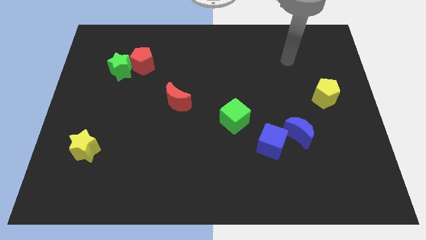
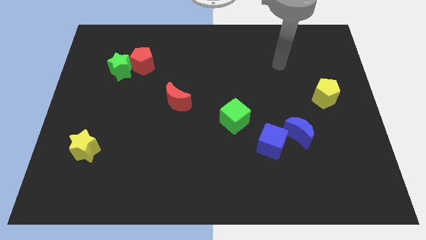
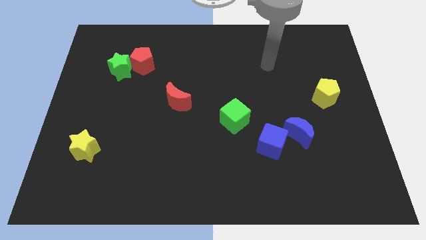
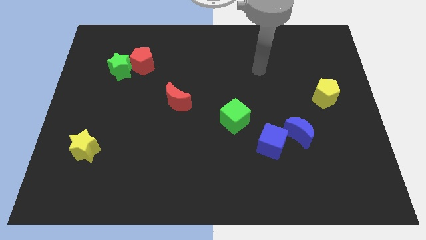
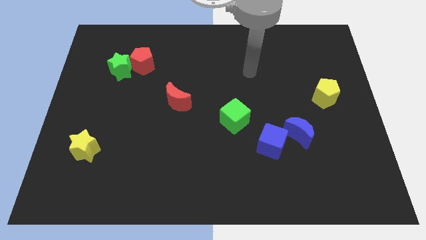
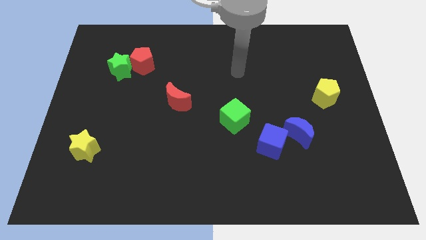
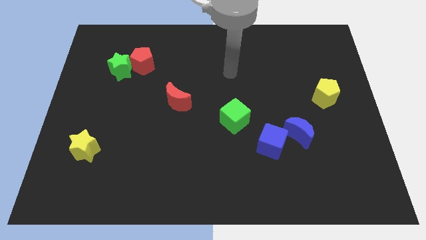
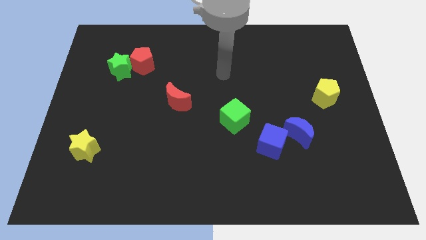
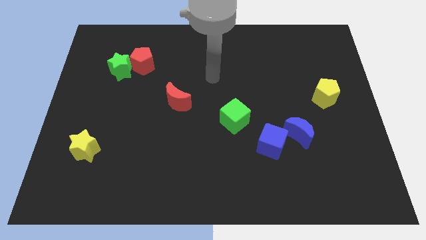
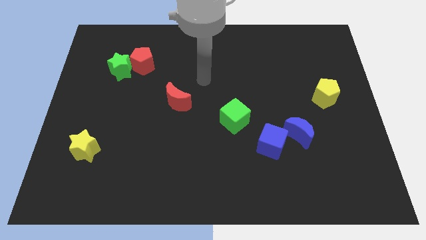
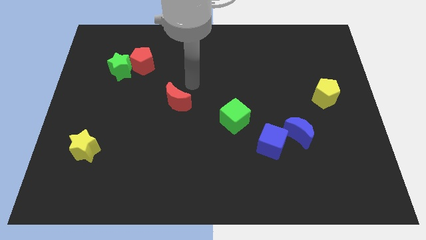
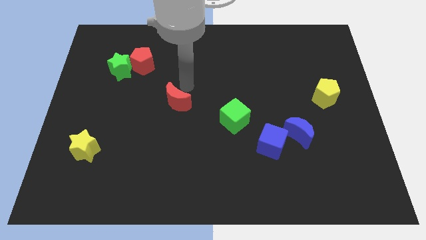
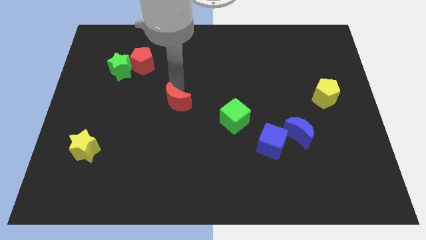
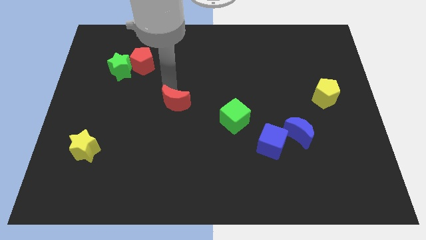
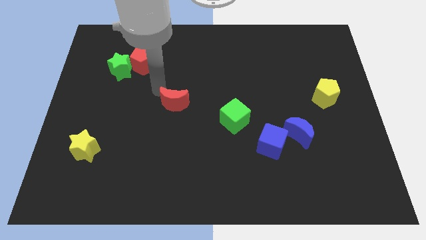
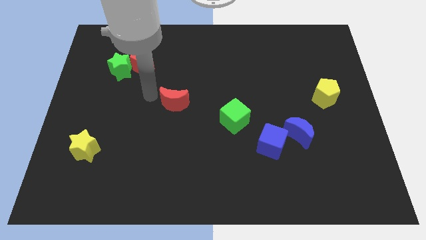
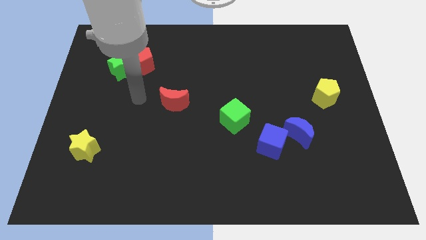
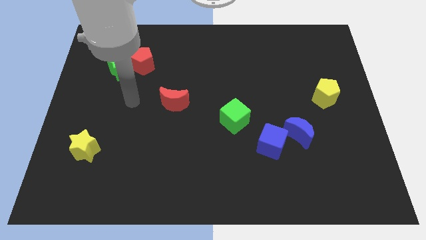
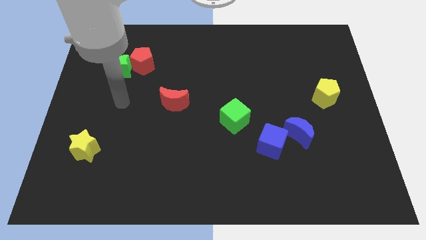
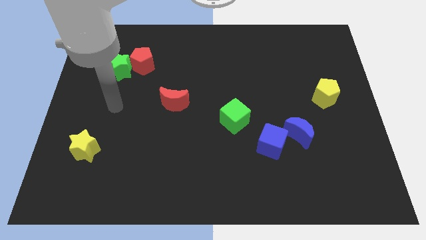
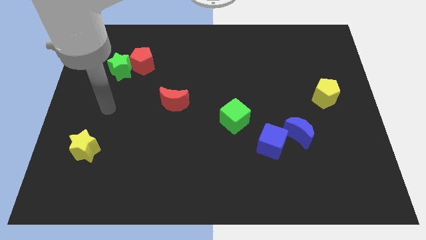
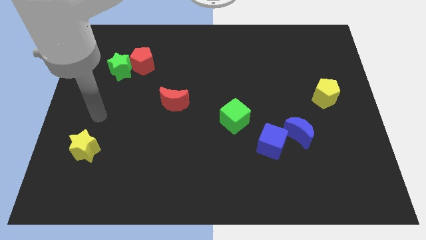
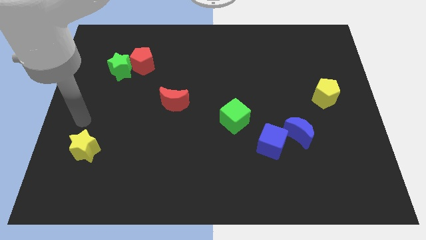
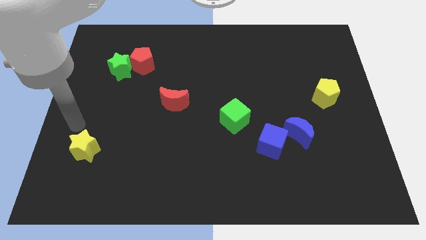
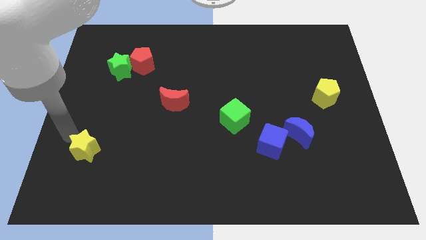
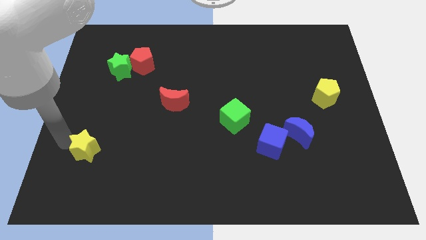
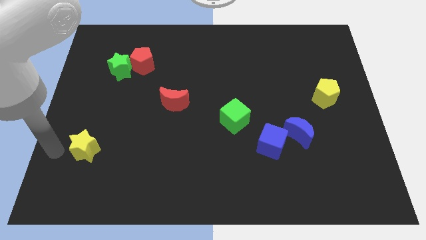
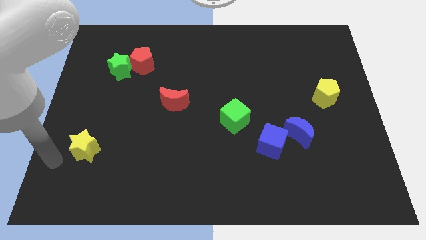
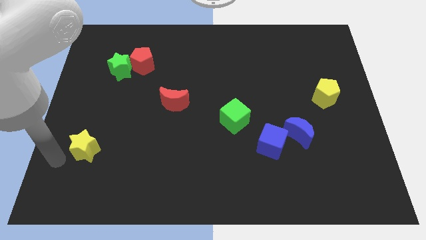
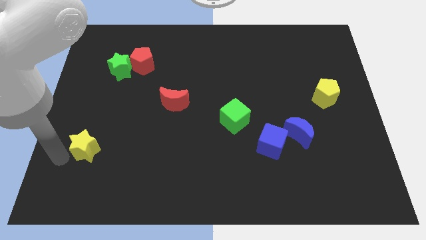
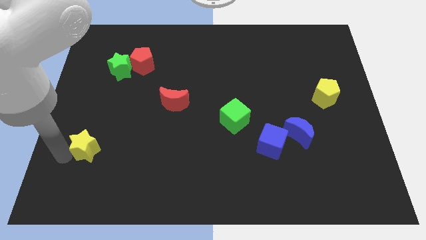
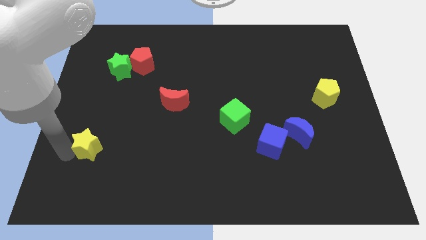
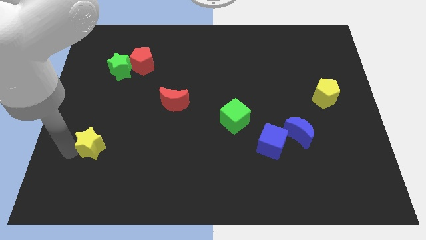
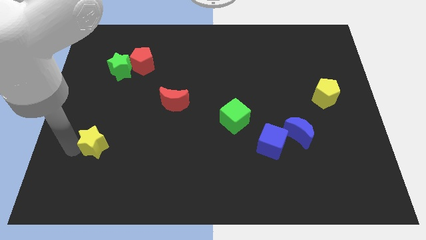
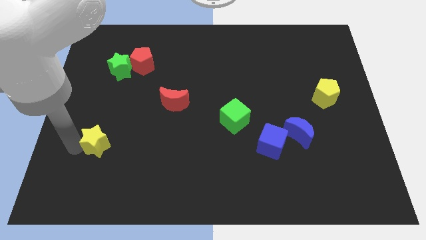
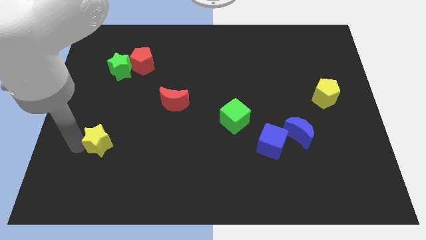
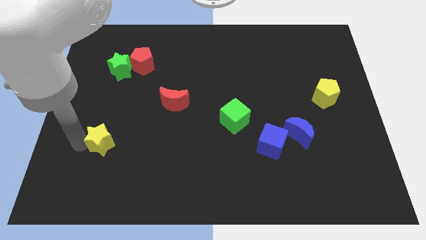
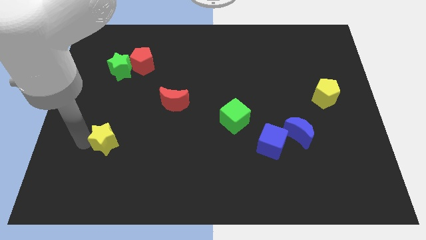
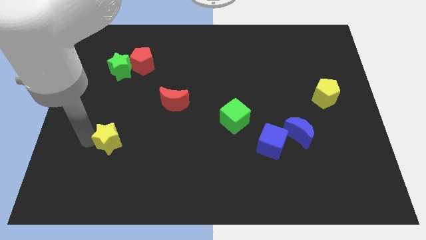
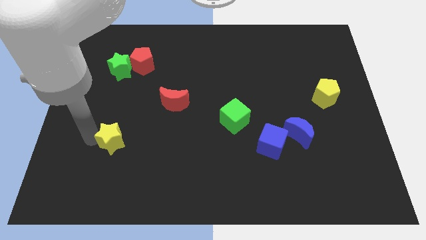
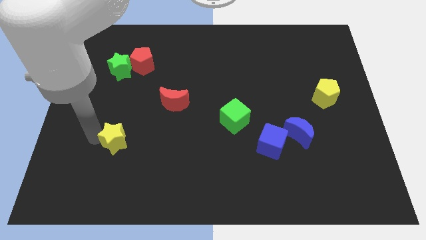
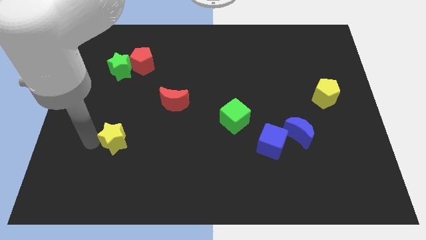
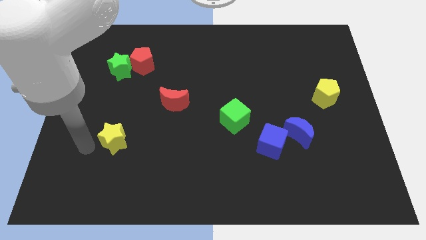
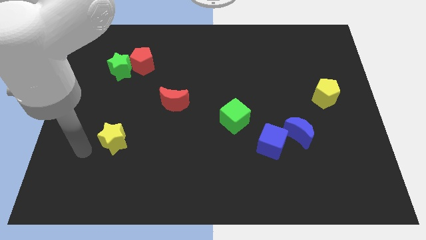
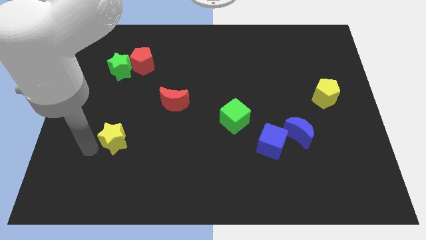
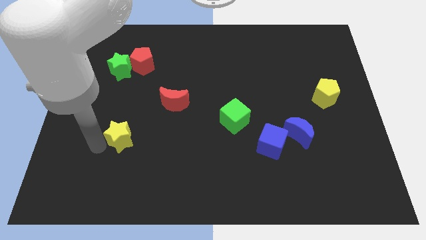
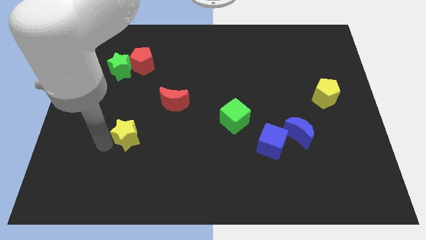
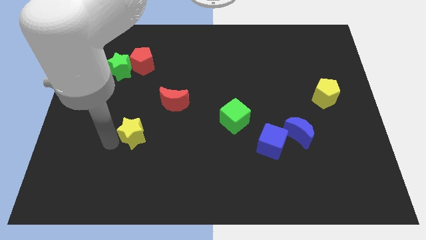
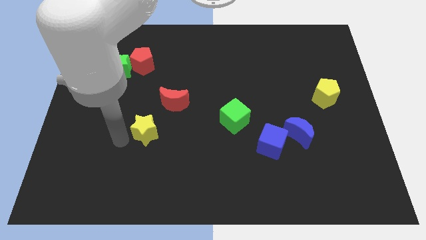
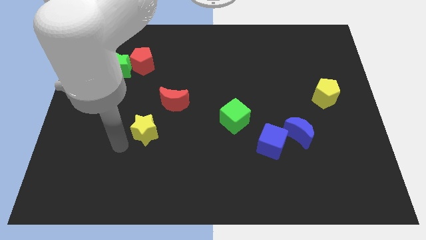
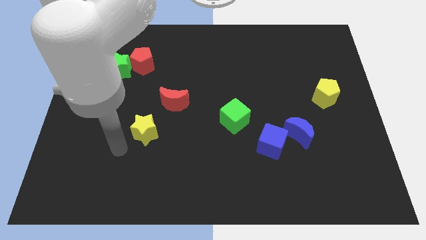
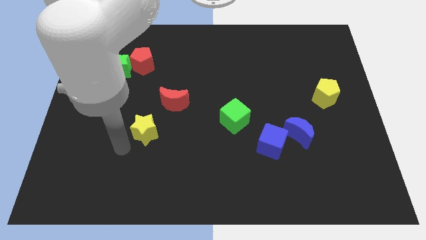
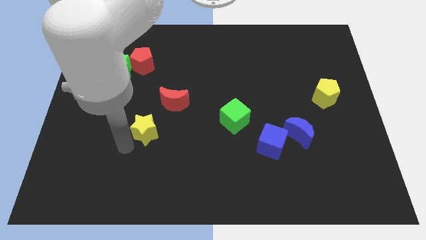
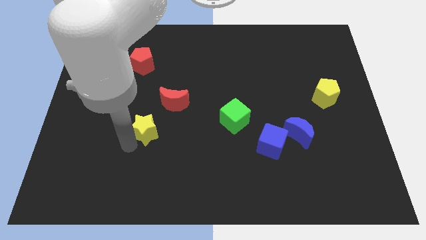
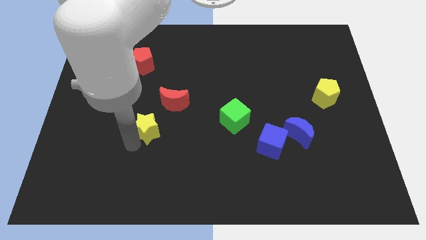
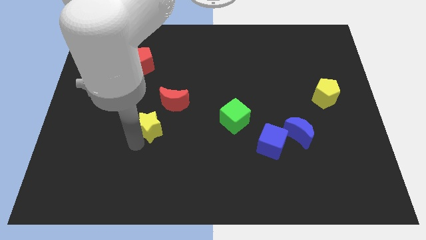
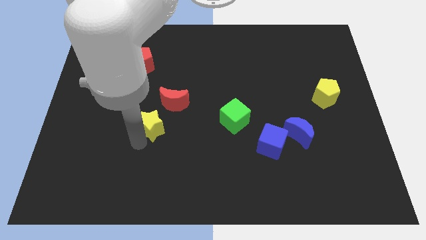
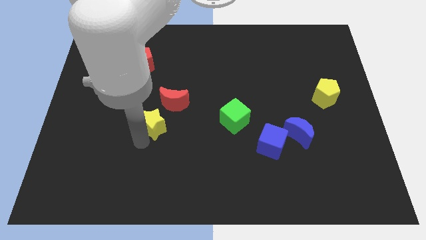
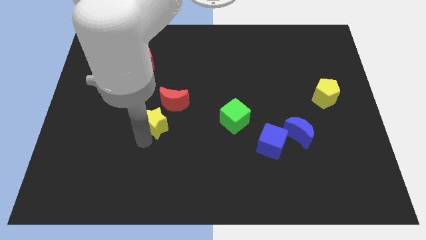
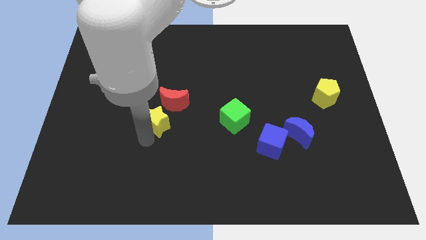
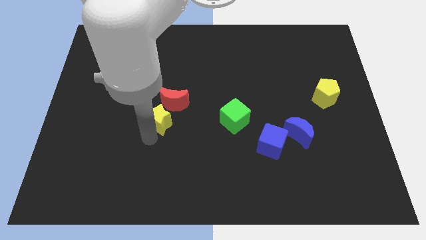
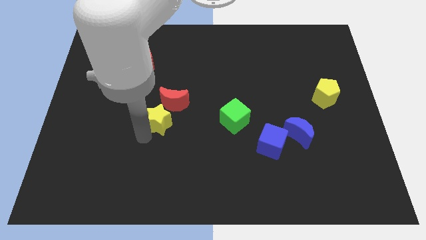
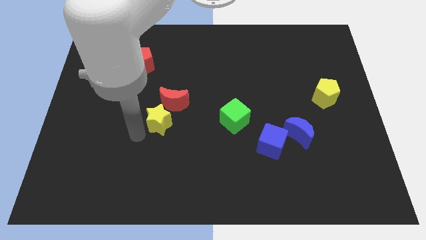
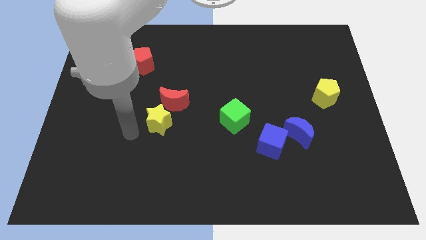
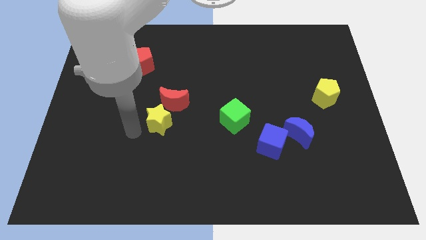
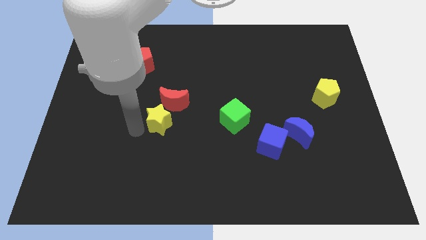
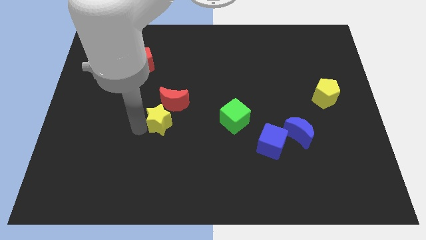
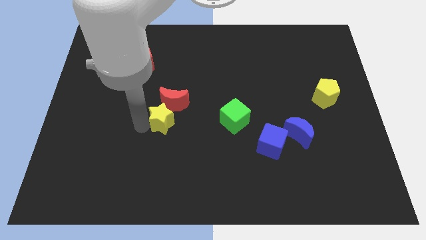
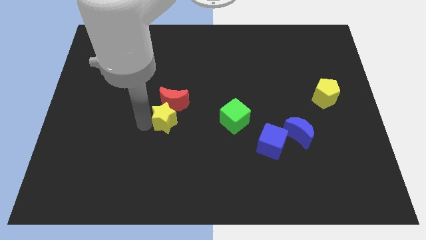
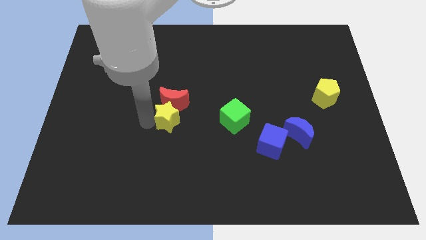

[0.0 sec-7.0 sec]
put the yellow star to the center of the board

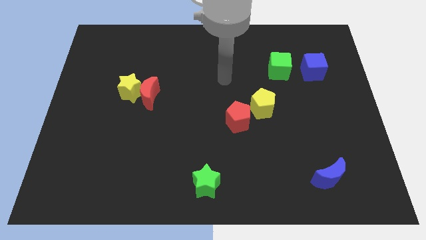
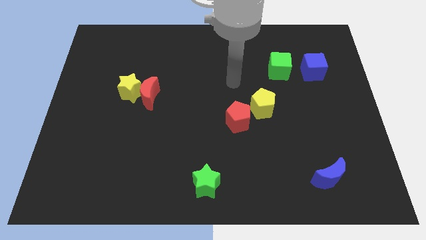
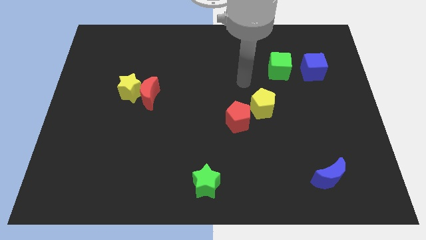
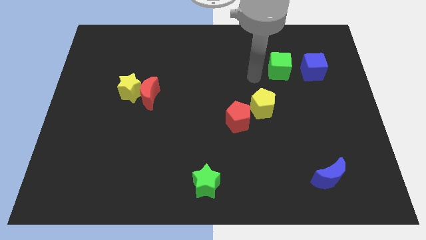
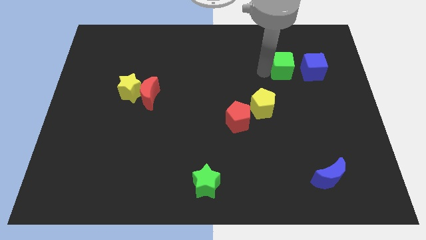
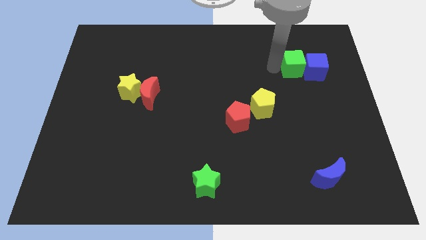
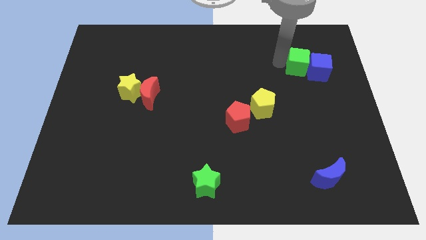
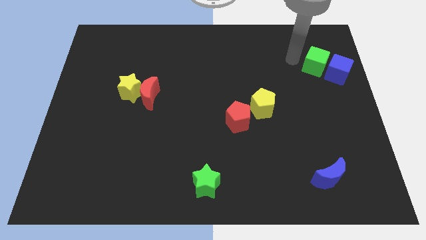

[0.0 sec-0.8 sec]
slide the blue cube to the center right
